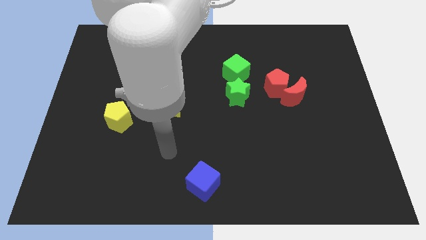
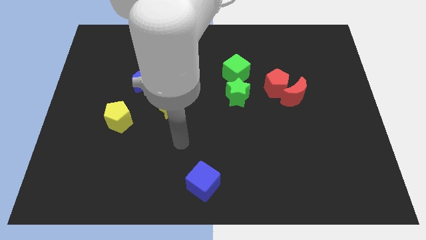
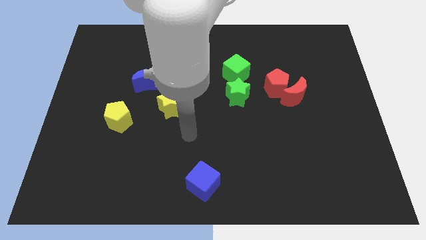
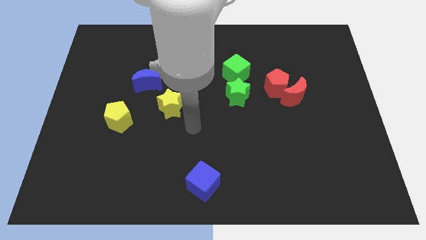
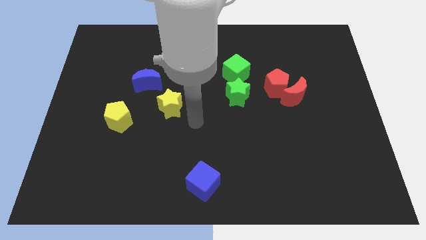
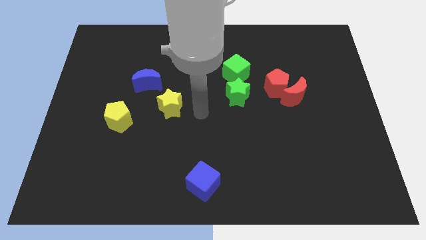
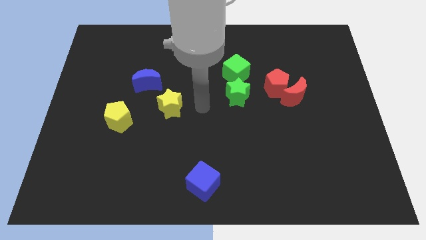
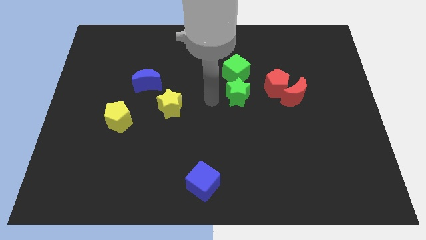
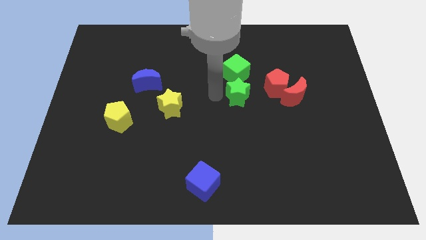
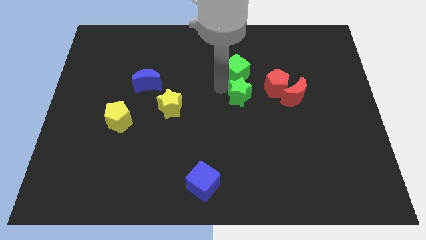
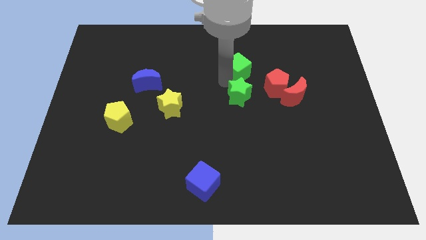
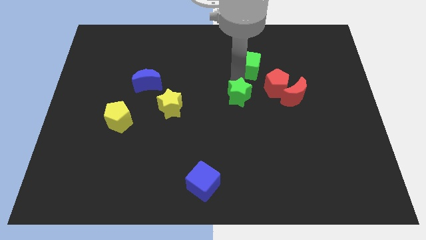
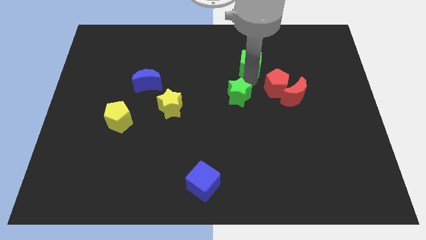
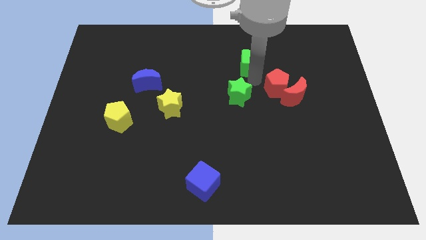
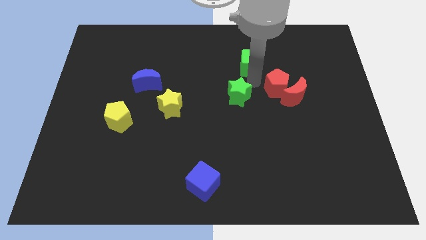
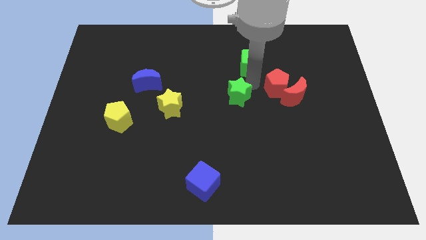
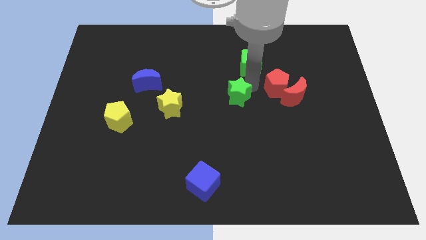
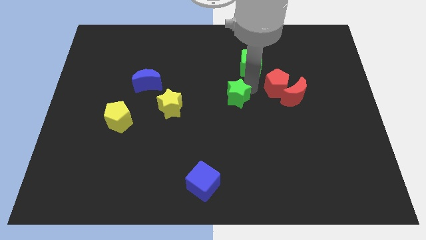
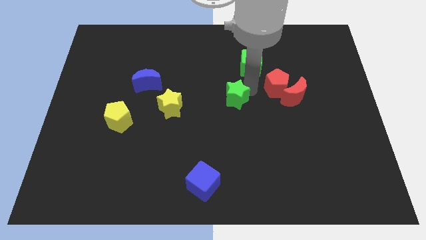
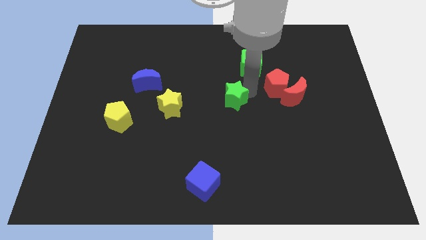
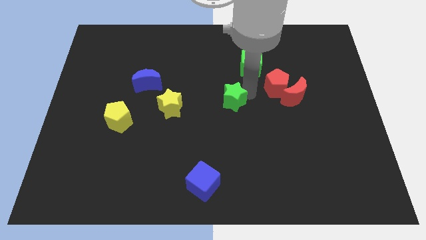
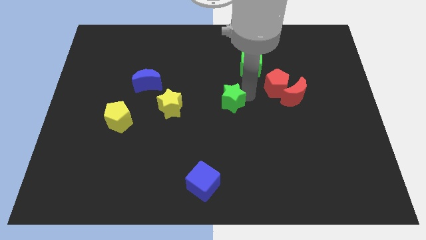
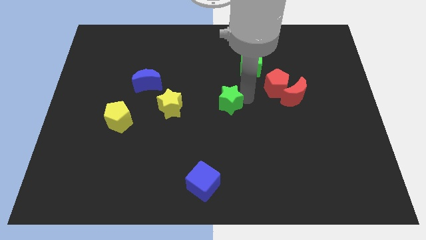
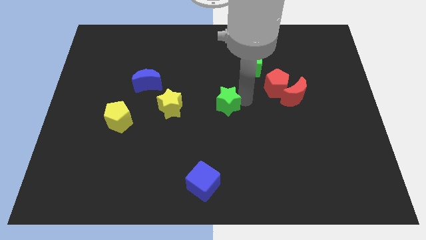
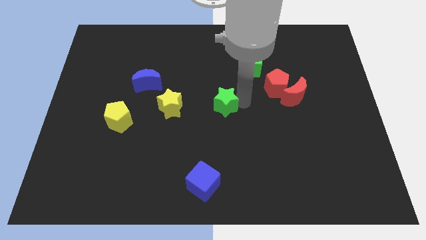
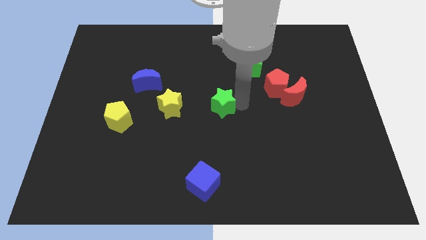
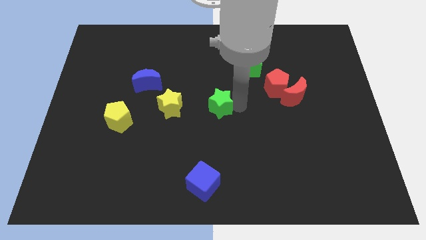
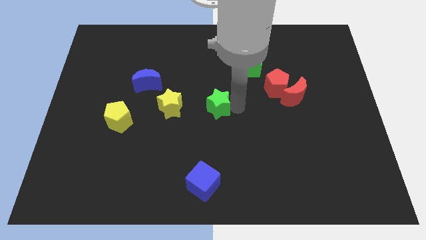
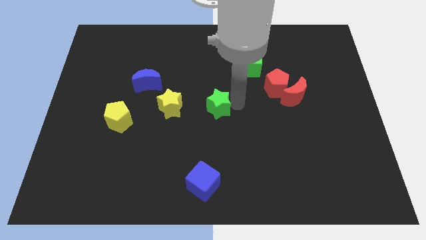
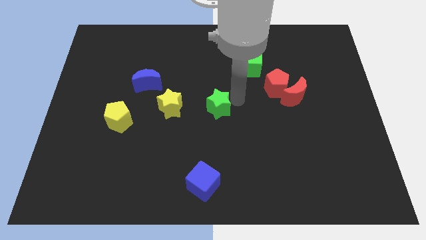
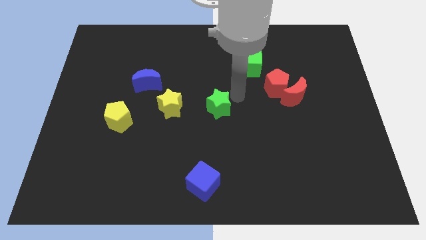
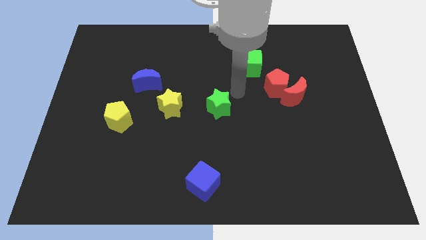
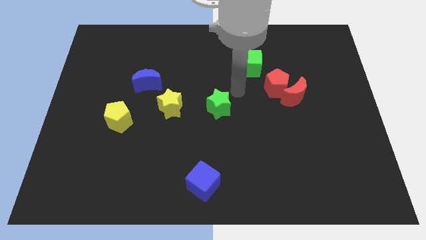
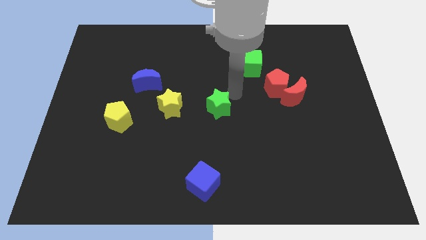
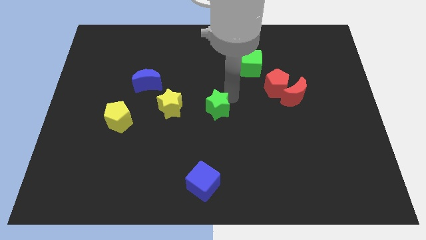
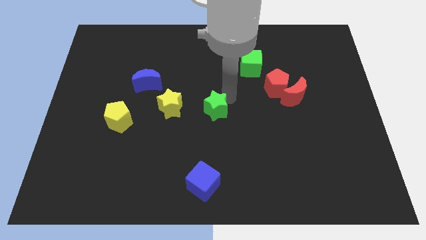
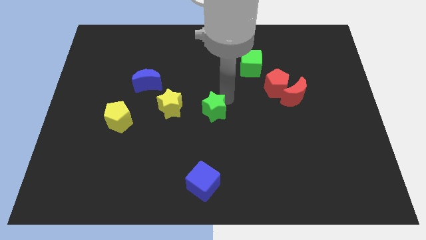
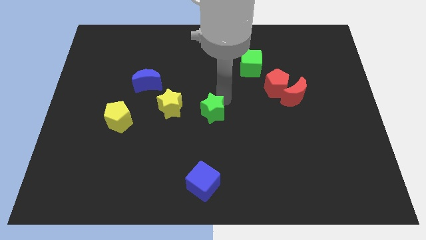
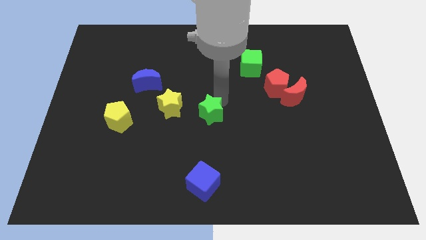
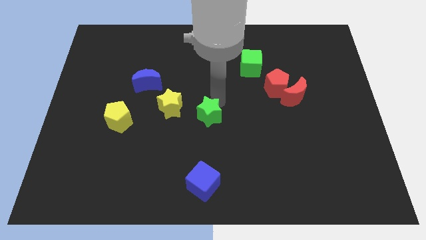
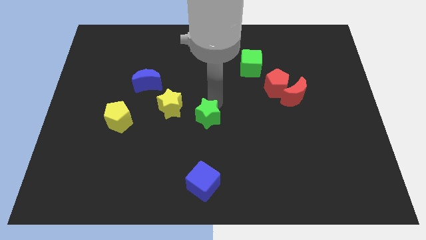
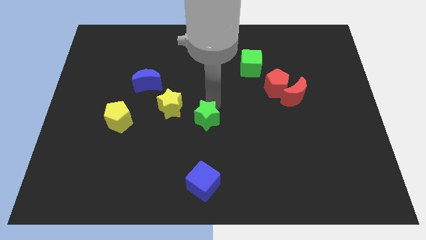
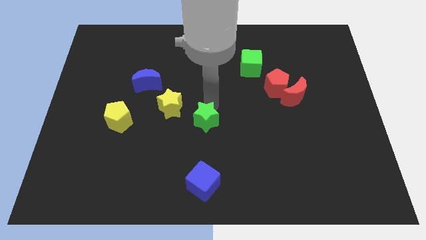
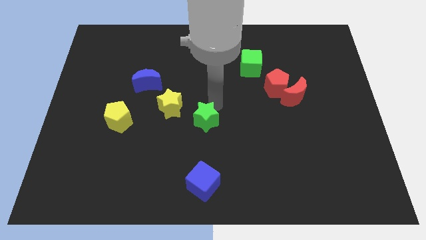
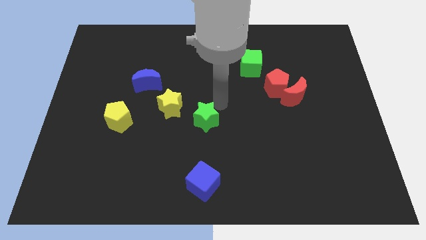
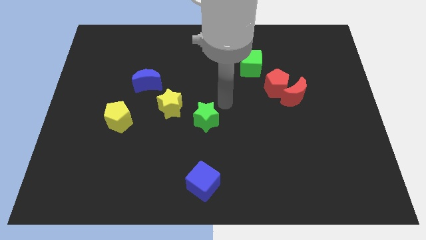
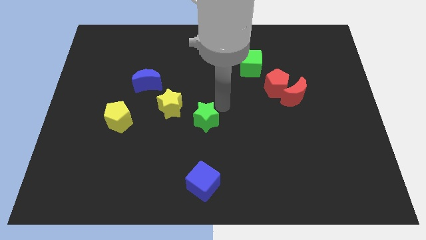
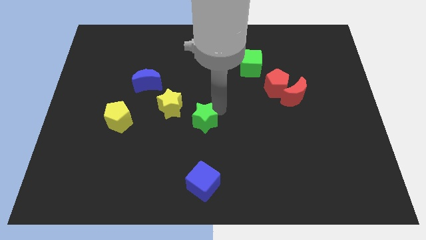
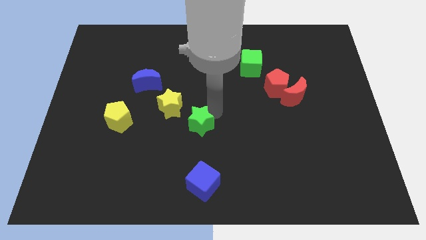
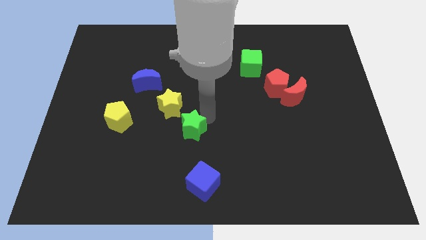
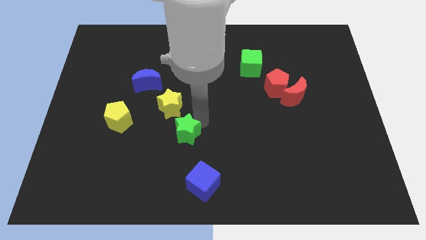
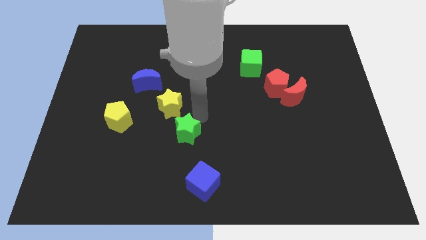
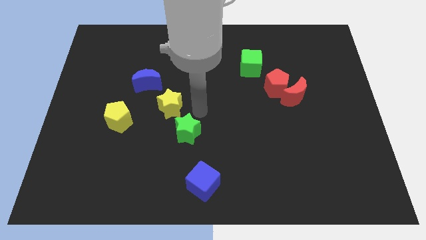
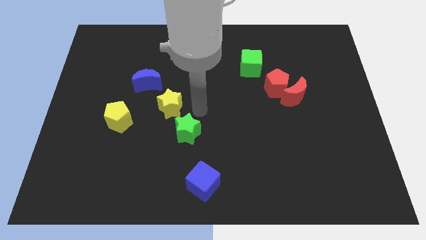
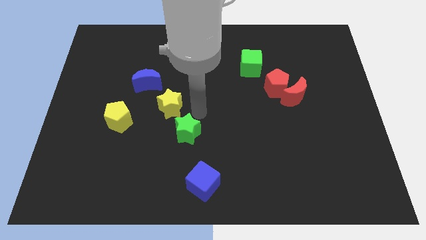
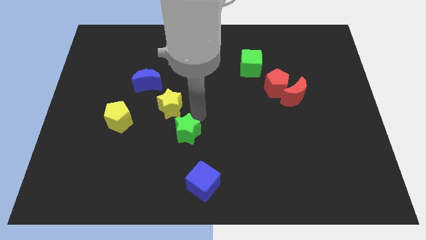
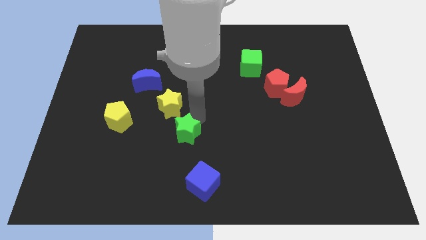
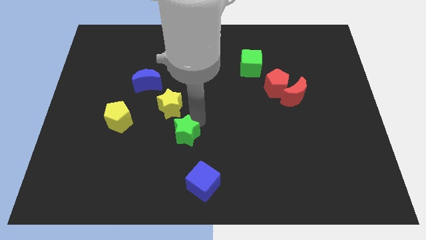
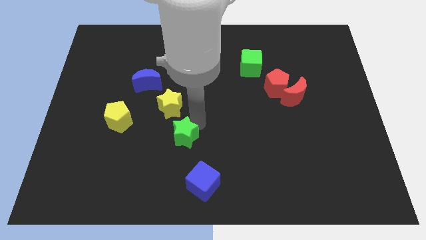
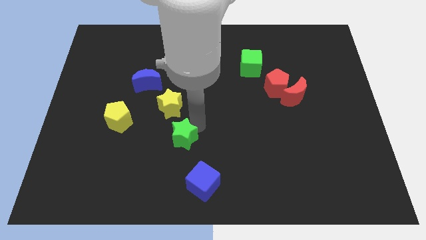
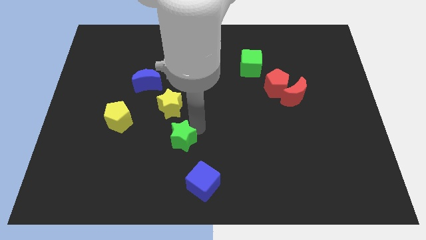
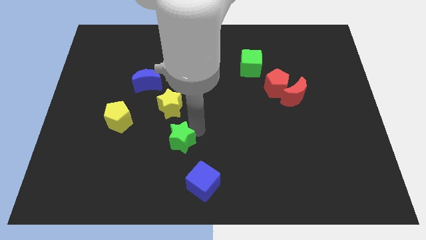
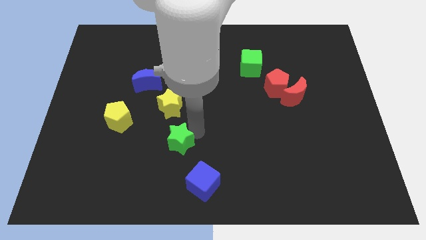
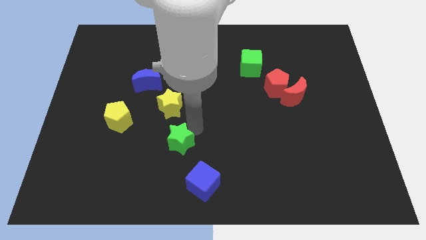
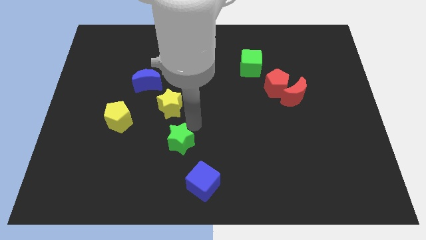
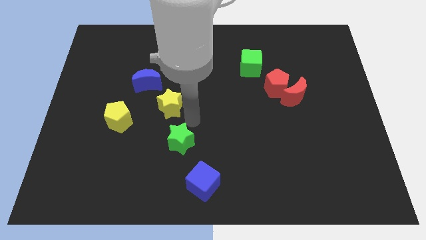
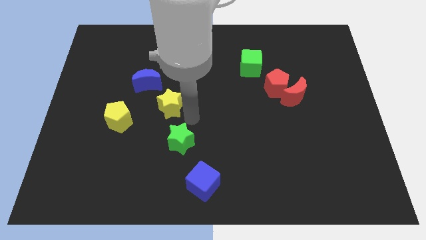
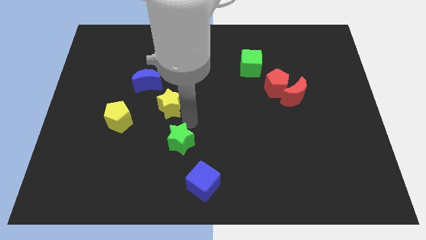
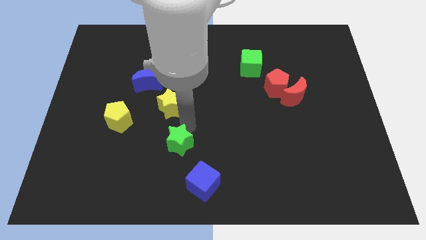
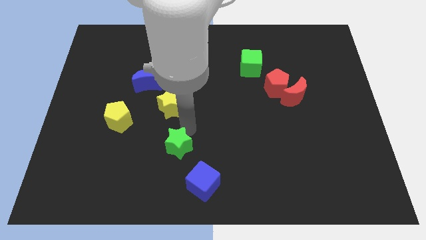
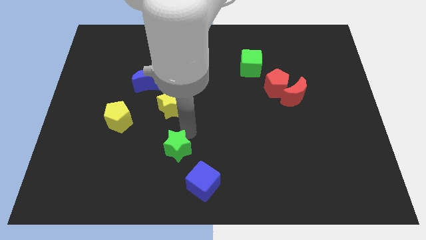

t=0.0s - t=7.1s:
push the green star diagonally down and to the left

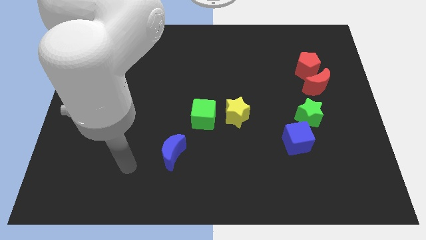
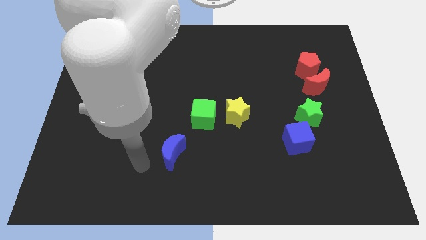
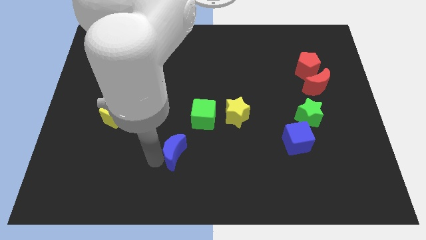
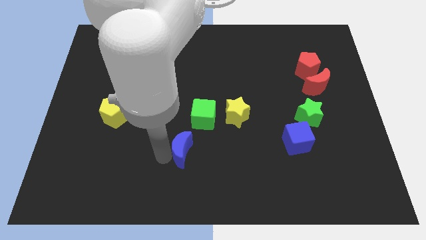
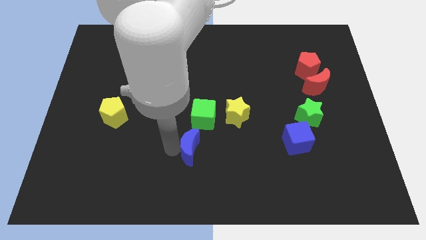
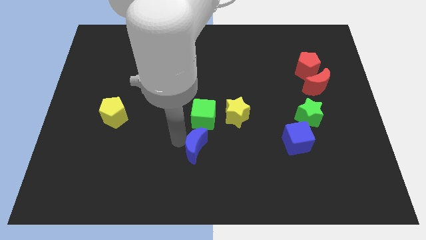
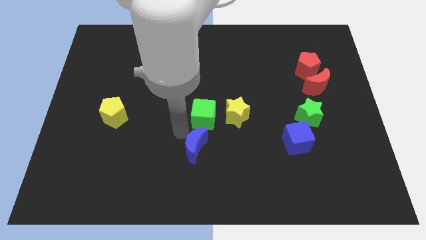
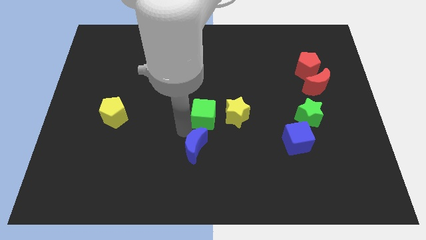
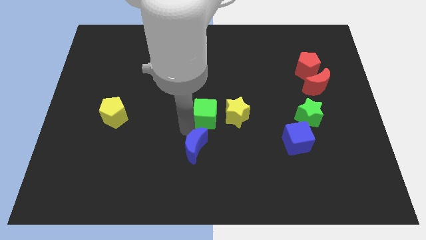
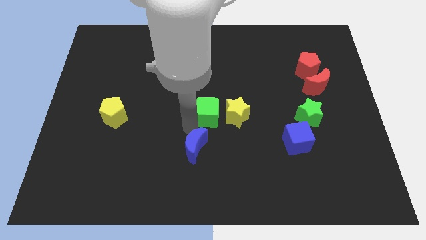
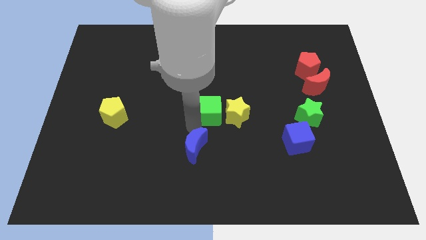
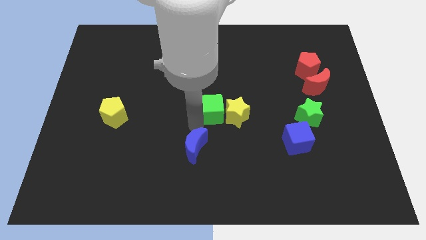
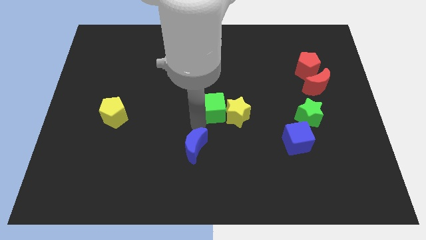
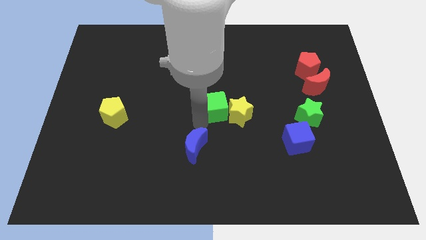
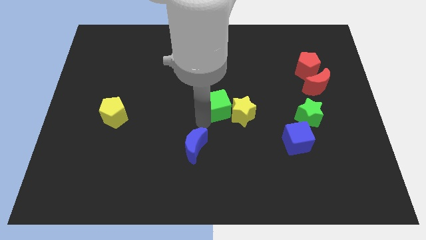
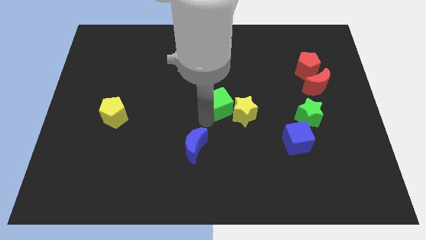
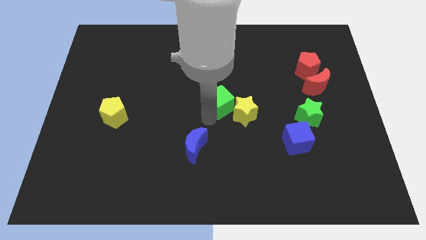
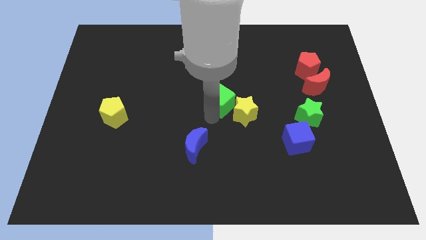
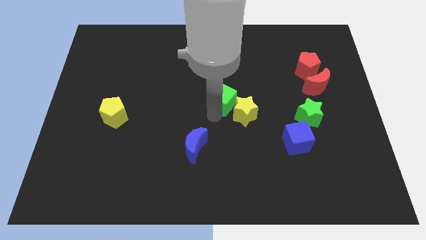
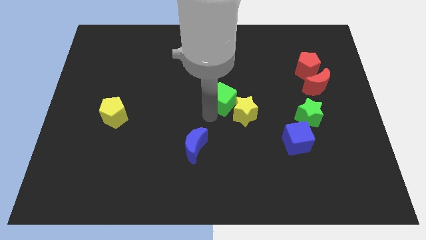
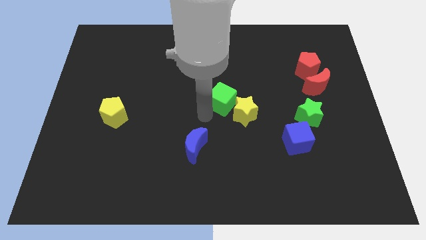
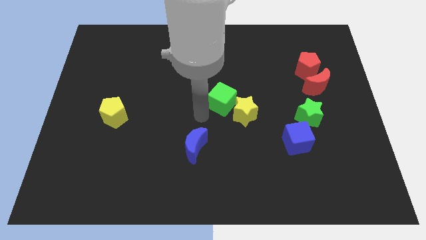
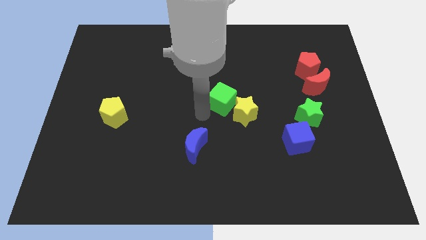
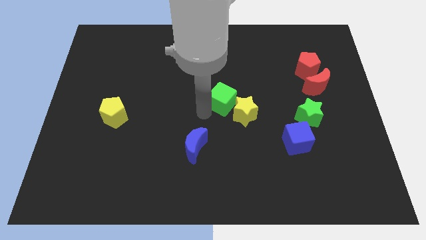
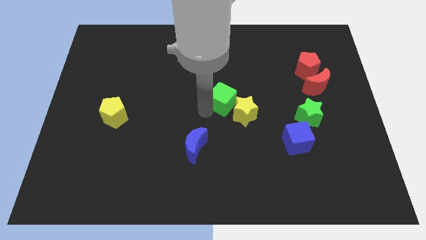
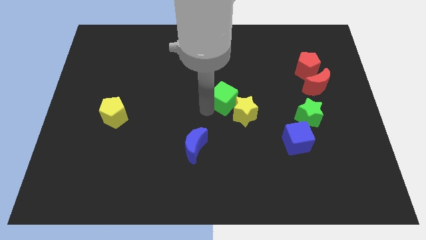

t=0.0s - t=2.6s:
slightly slide the green cube up and to the right diagonally
